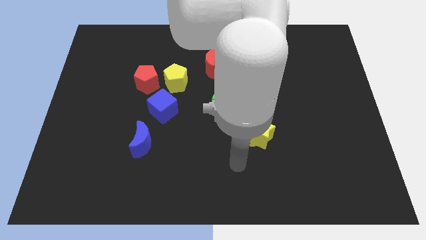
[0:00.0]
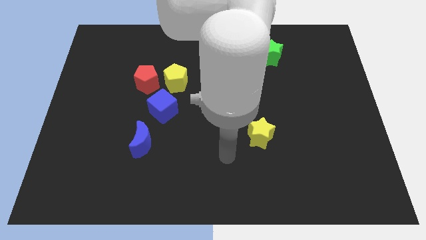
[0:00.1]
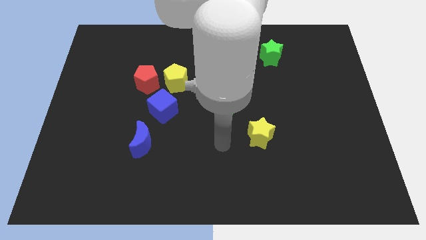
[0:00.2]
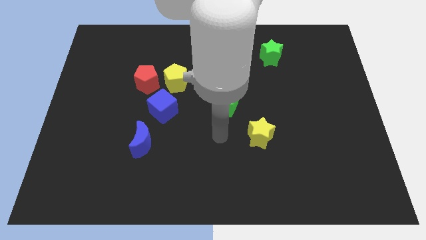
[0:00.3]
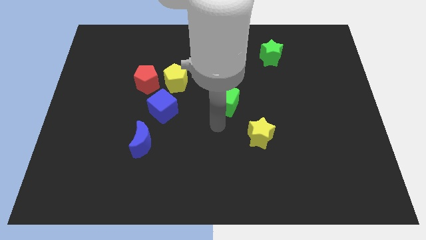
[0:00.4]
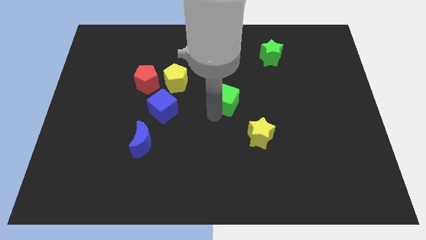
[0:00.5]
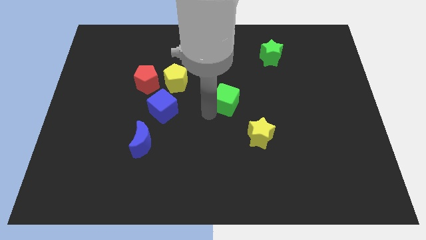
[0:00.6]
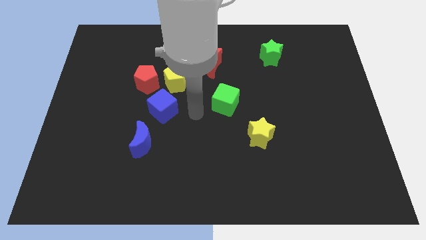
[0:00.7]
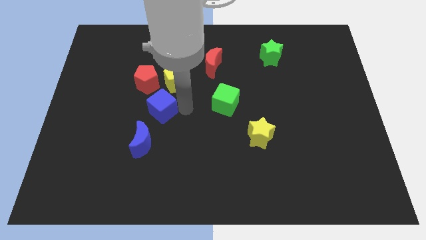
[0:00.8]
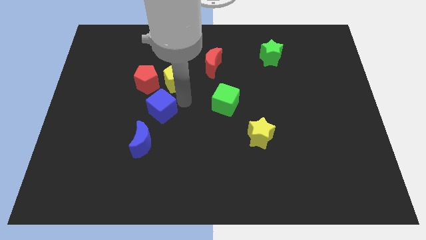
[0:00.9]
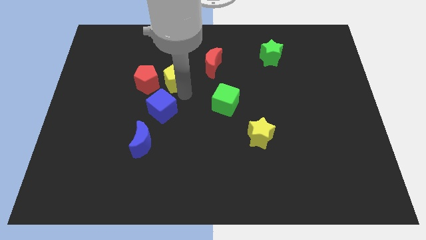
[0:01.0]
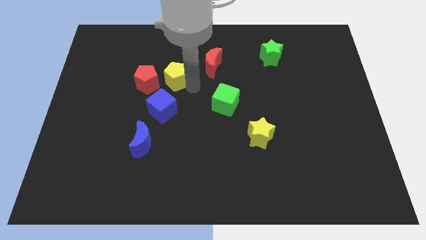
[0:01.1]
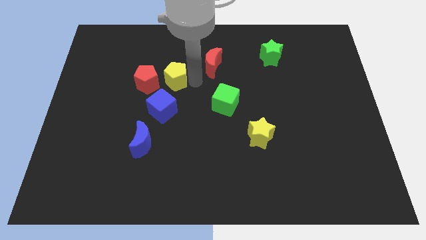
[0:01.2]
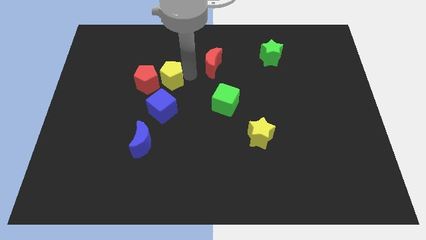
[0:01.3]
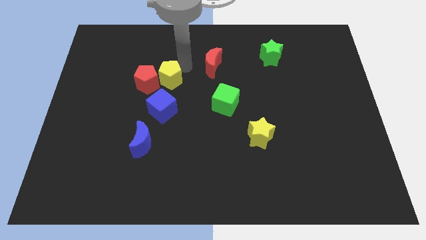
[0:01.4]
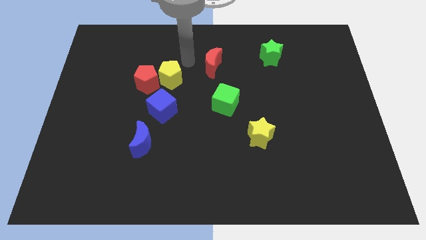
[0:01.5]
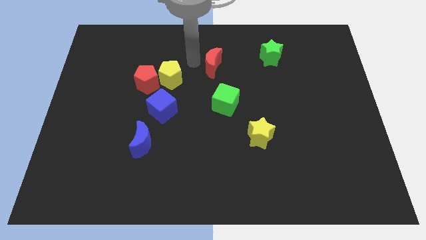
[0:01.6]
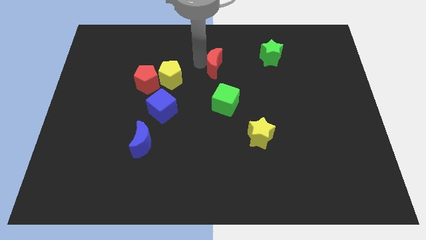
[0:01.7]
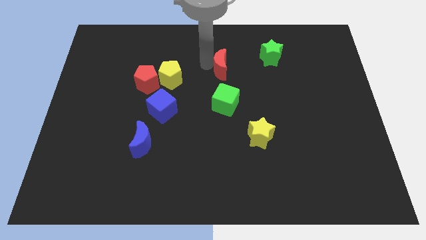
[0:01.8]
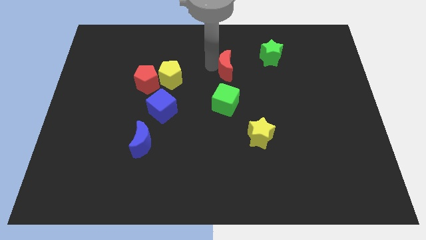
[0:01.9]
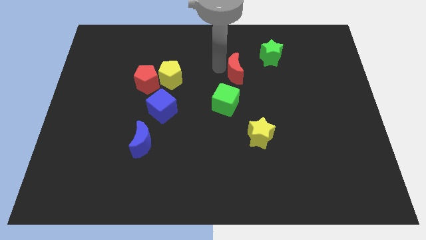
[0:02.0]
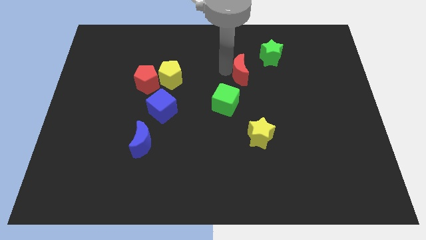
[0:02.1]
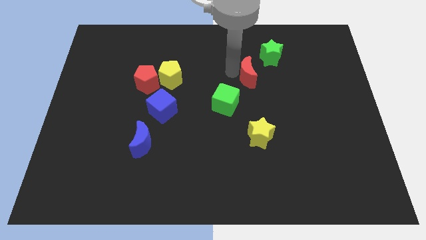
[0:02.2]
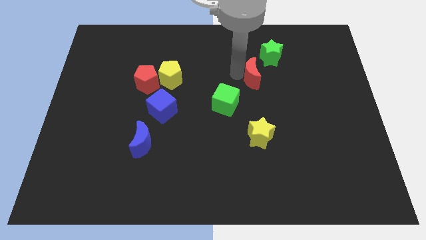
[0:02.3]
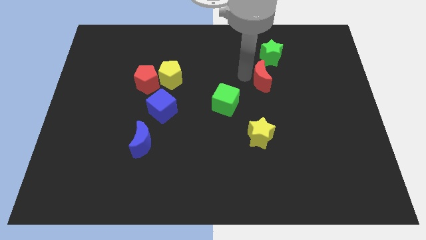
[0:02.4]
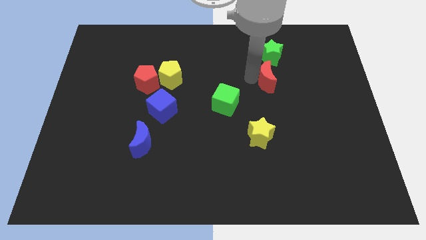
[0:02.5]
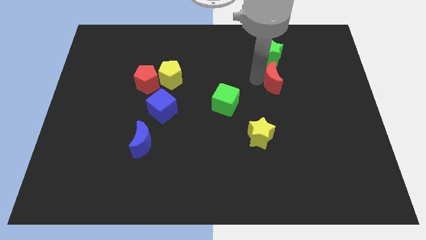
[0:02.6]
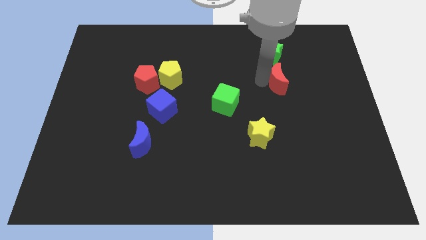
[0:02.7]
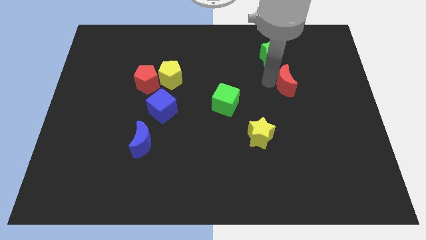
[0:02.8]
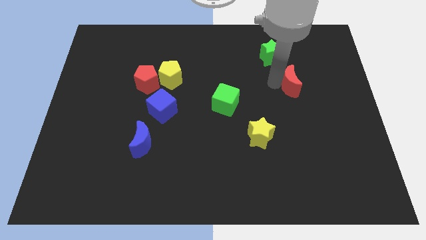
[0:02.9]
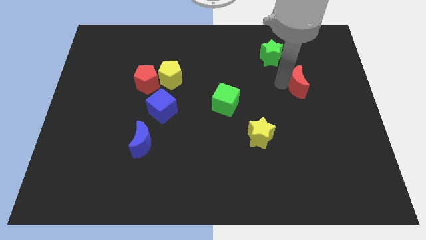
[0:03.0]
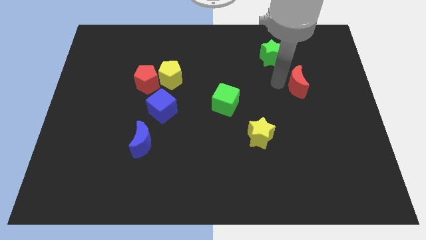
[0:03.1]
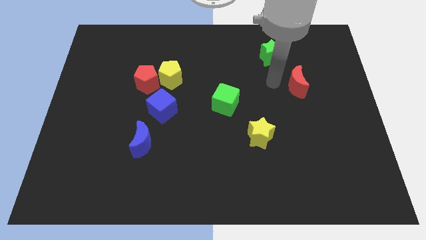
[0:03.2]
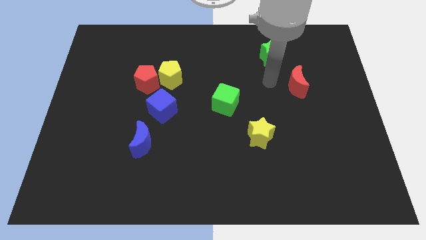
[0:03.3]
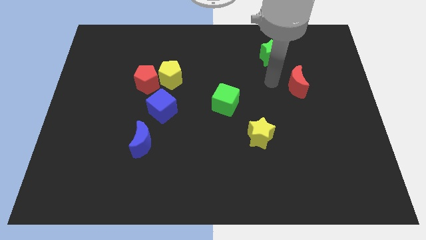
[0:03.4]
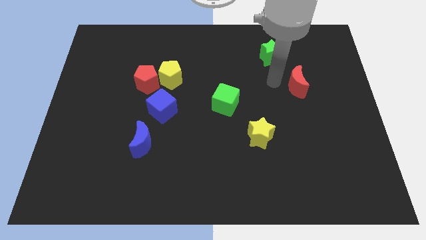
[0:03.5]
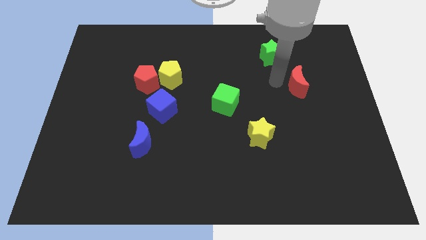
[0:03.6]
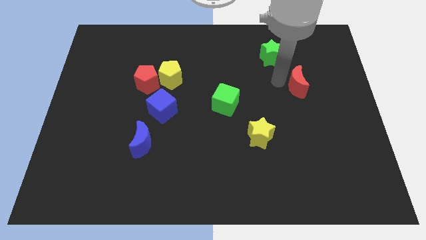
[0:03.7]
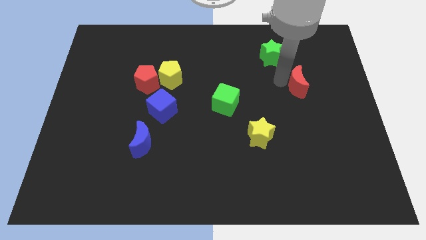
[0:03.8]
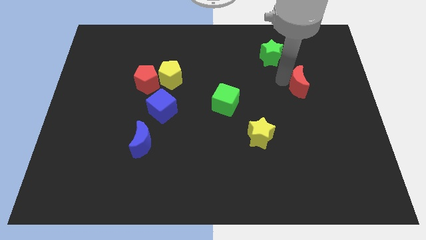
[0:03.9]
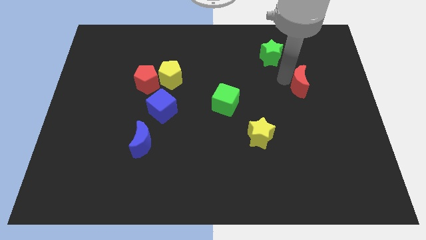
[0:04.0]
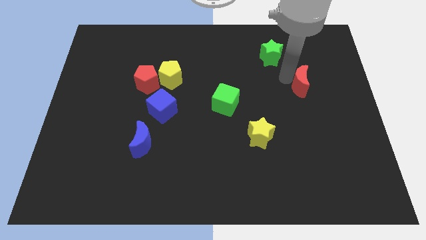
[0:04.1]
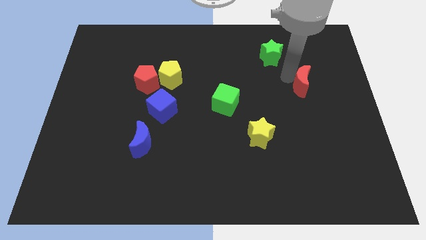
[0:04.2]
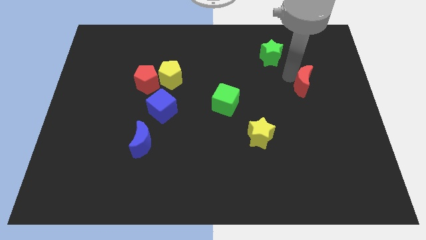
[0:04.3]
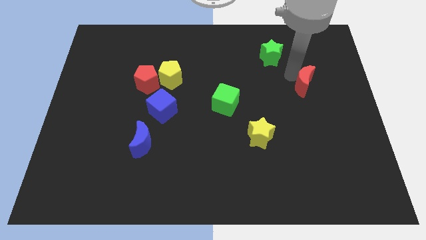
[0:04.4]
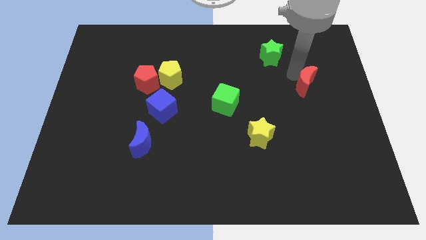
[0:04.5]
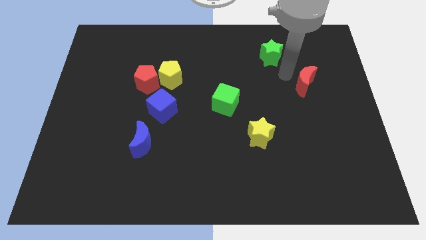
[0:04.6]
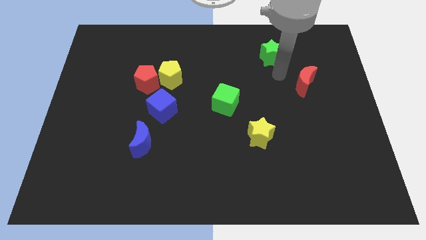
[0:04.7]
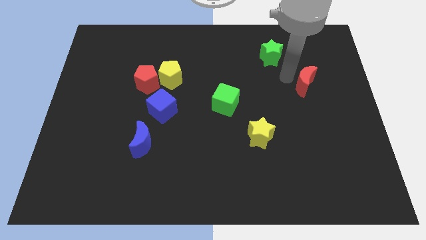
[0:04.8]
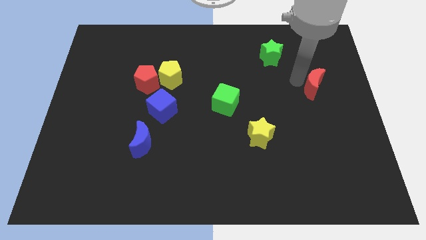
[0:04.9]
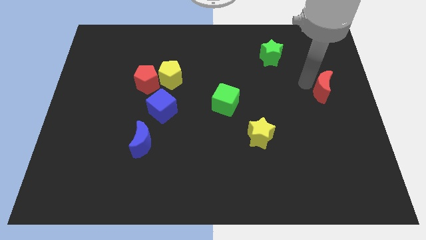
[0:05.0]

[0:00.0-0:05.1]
put the red moon to the right side of the board

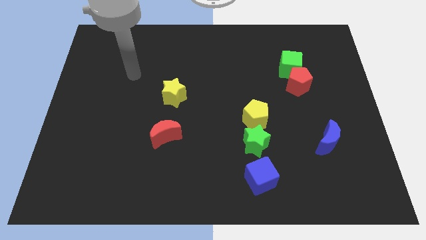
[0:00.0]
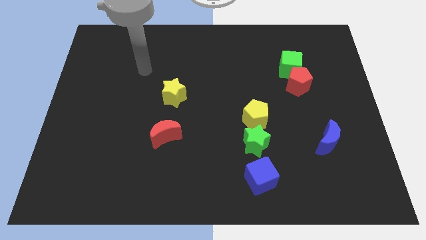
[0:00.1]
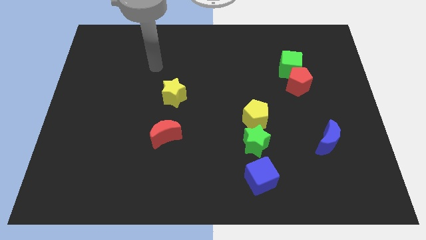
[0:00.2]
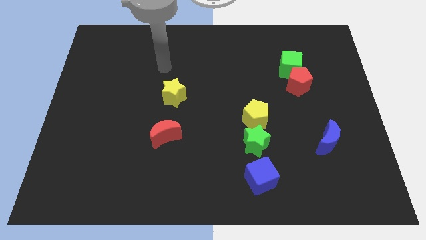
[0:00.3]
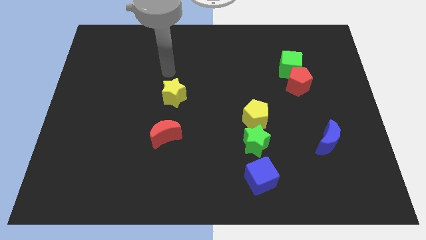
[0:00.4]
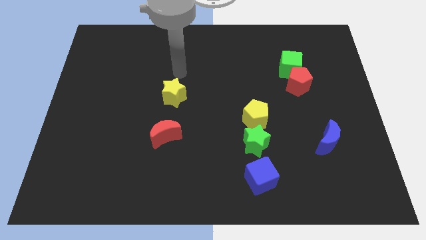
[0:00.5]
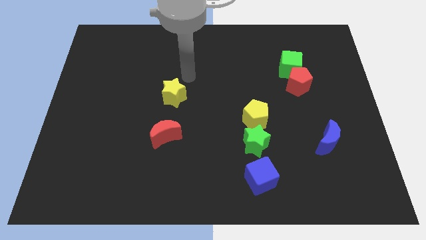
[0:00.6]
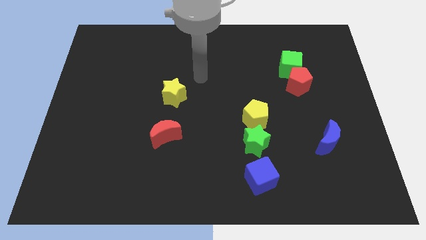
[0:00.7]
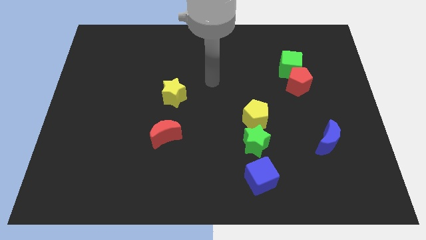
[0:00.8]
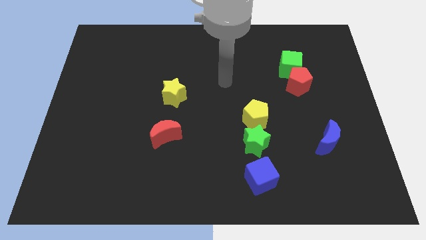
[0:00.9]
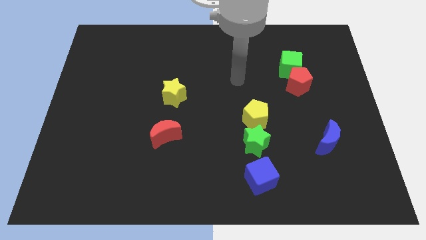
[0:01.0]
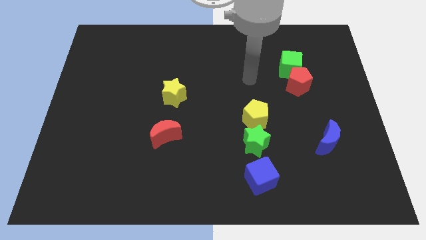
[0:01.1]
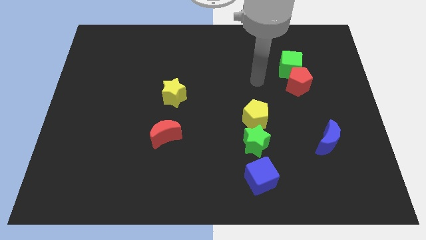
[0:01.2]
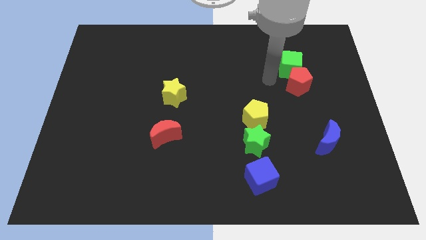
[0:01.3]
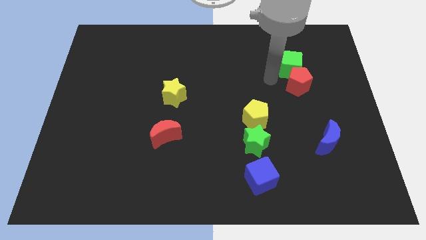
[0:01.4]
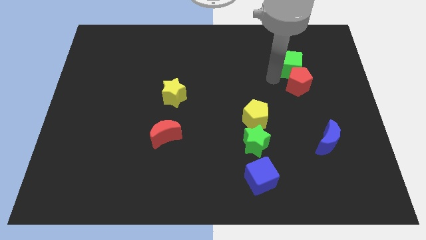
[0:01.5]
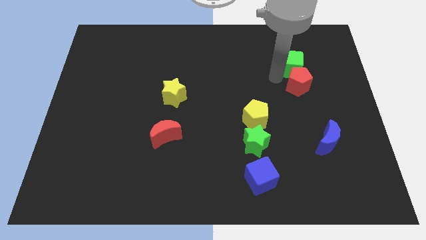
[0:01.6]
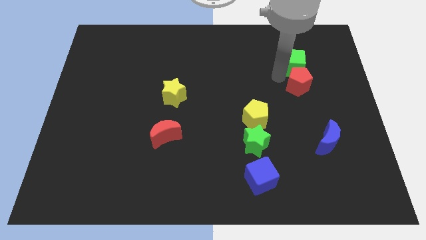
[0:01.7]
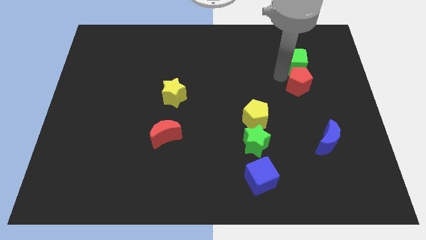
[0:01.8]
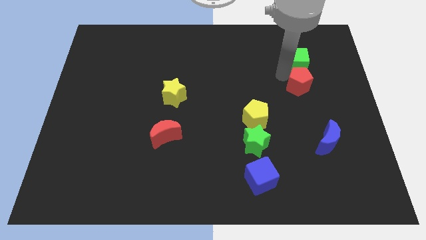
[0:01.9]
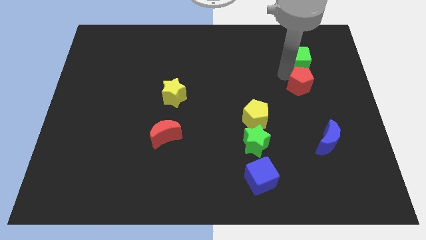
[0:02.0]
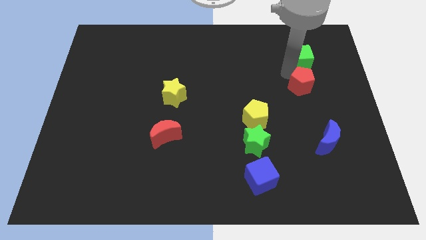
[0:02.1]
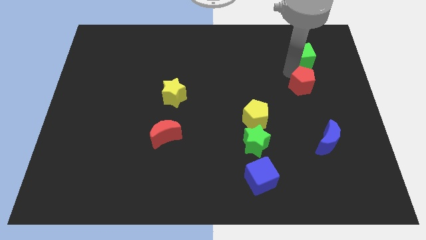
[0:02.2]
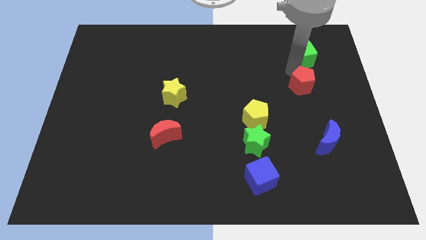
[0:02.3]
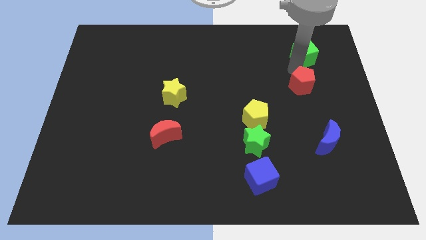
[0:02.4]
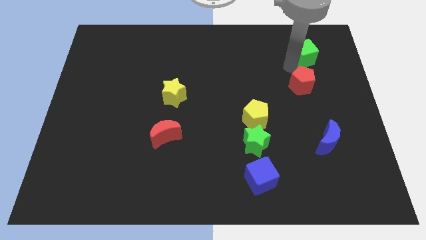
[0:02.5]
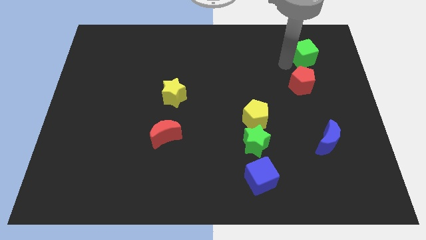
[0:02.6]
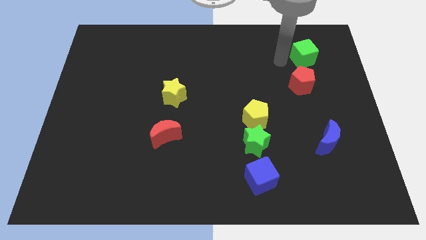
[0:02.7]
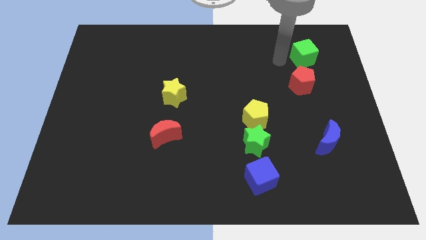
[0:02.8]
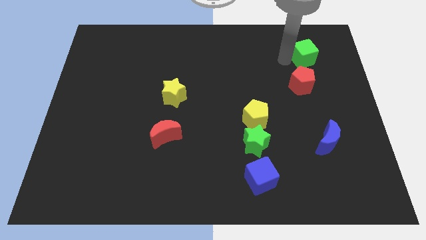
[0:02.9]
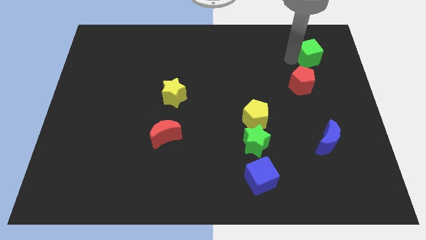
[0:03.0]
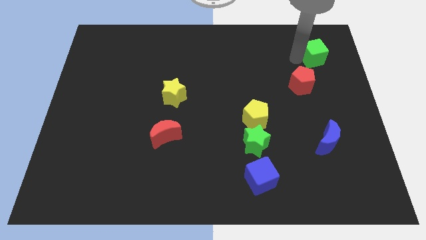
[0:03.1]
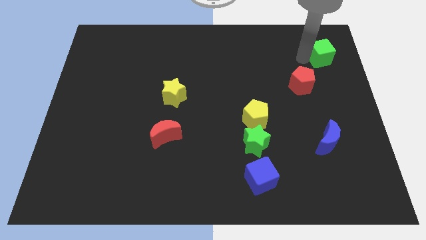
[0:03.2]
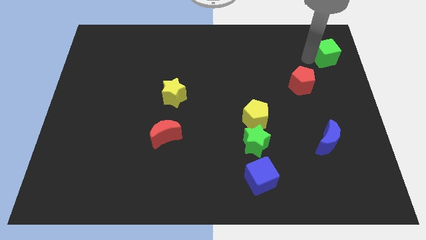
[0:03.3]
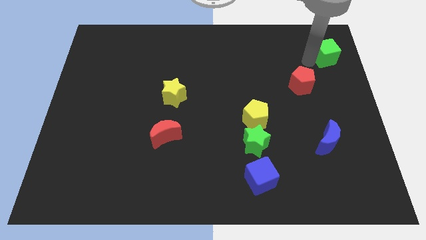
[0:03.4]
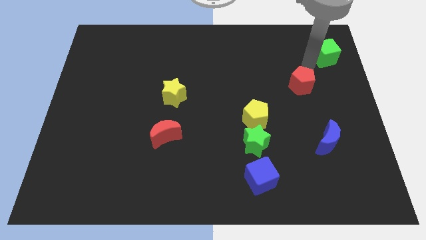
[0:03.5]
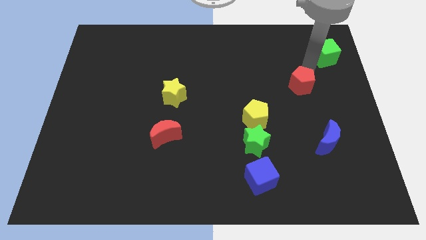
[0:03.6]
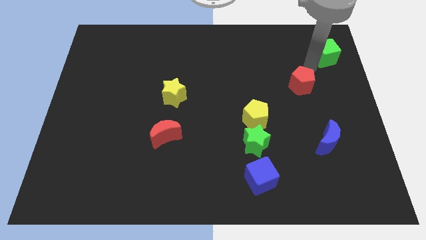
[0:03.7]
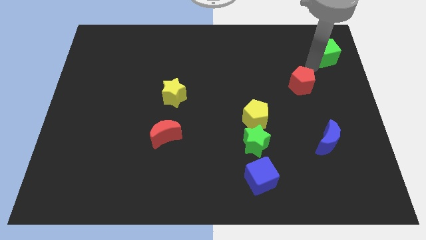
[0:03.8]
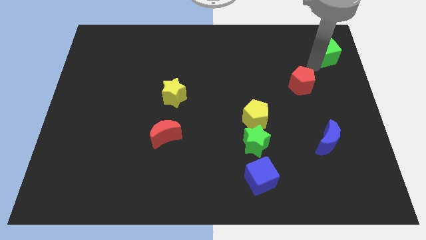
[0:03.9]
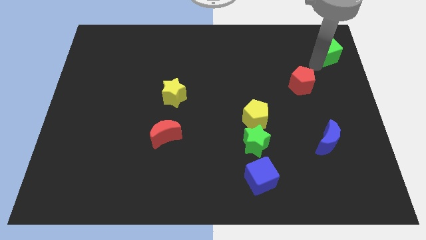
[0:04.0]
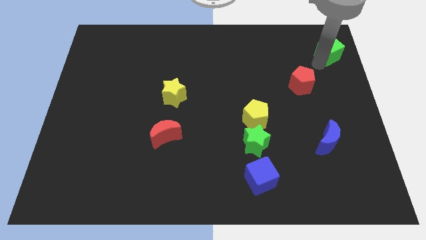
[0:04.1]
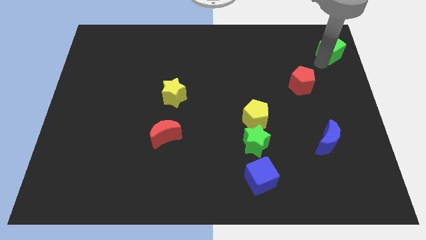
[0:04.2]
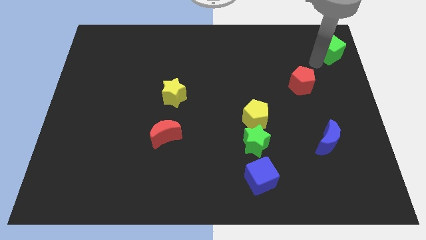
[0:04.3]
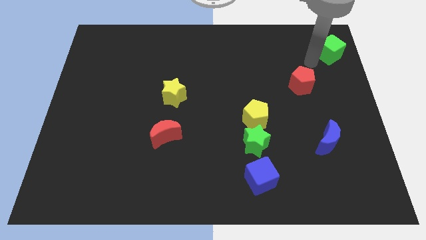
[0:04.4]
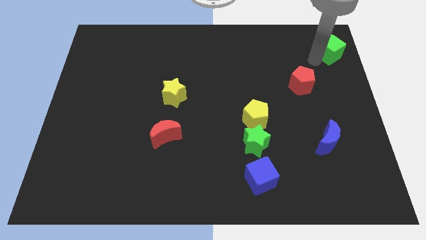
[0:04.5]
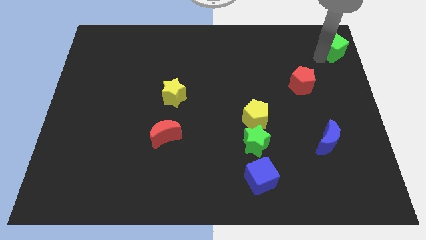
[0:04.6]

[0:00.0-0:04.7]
slide the green cube to the top right
